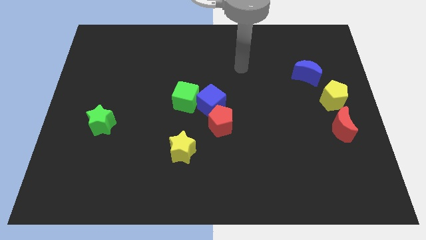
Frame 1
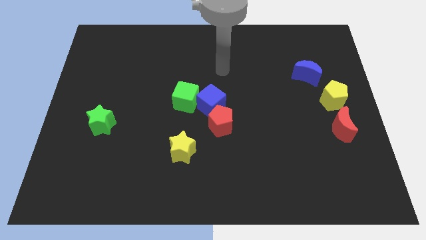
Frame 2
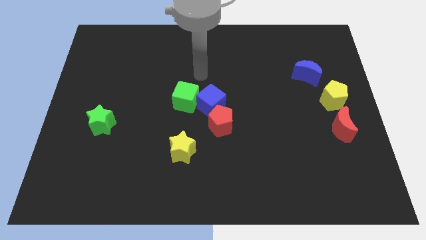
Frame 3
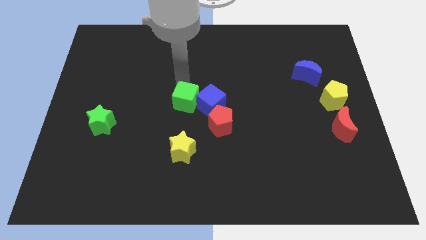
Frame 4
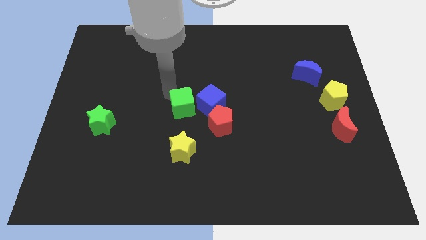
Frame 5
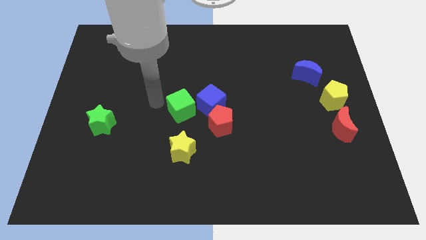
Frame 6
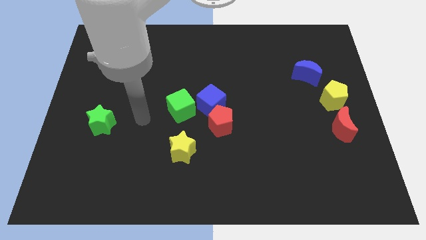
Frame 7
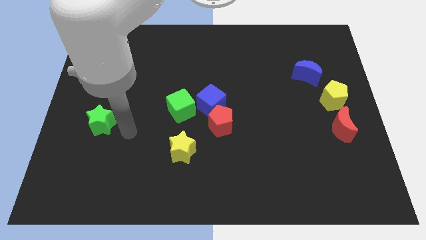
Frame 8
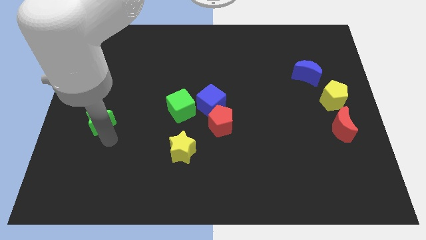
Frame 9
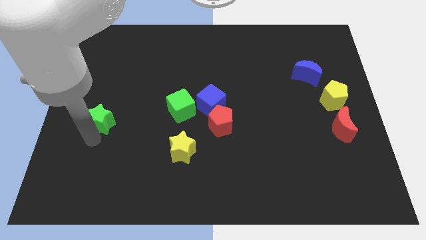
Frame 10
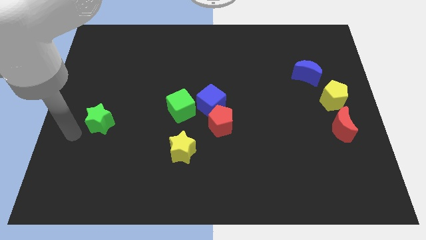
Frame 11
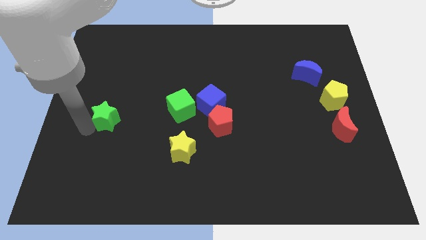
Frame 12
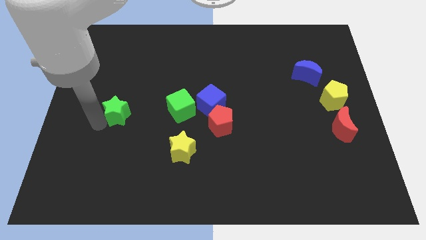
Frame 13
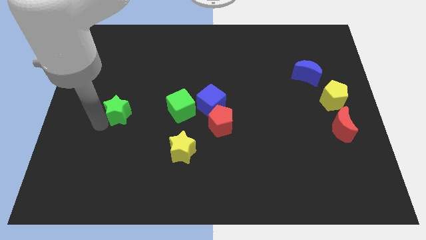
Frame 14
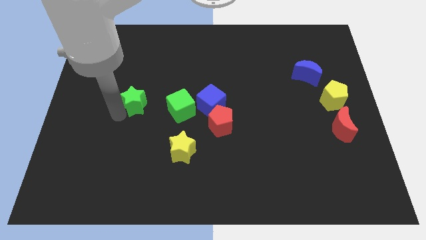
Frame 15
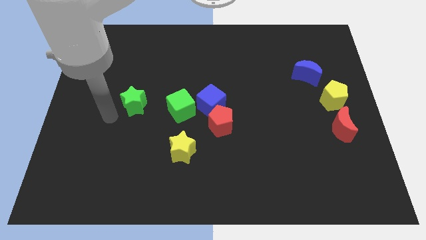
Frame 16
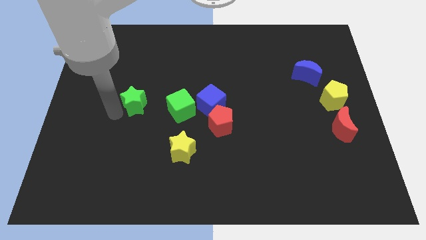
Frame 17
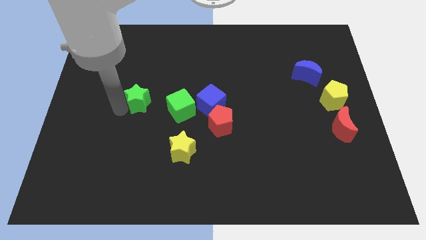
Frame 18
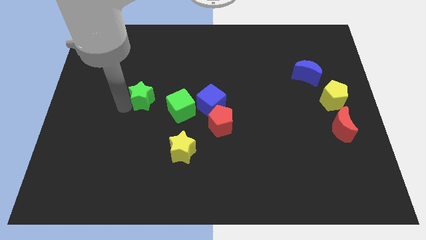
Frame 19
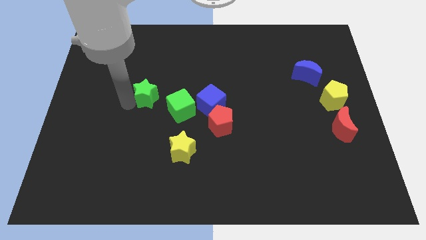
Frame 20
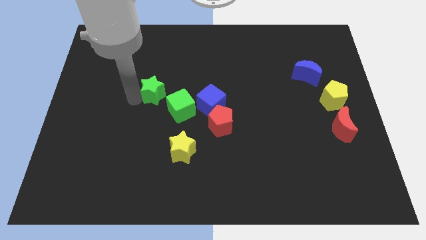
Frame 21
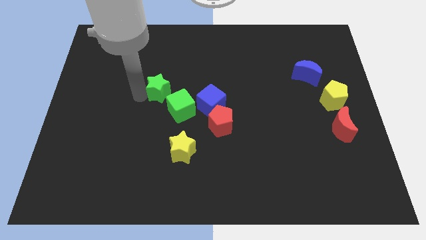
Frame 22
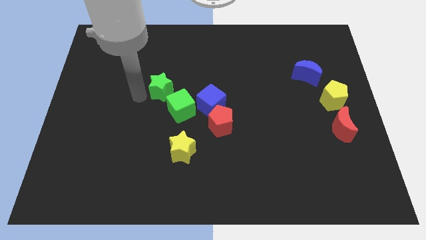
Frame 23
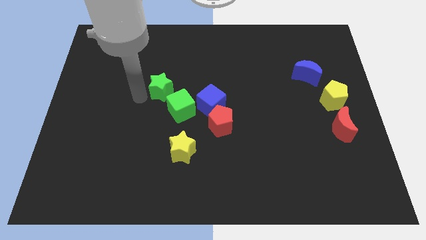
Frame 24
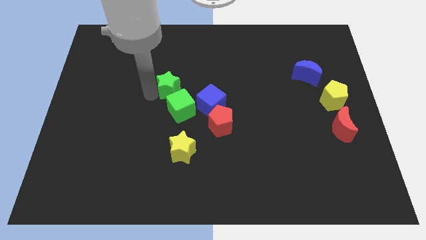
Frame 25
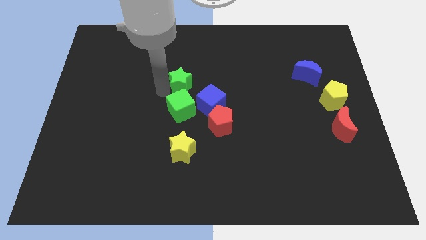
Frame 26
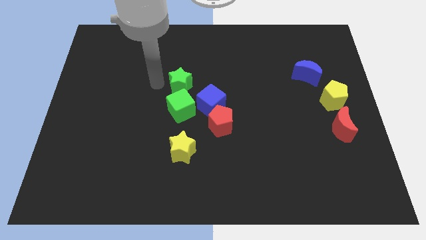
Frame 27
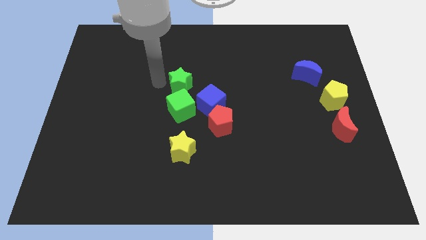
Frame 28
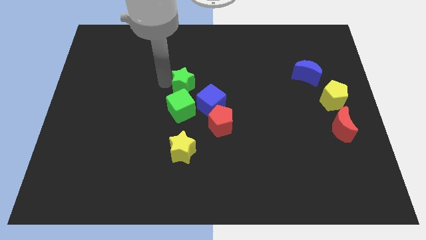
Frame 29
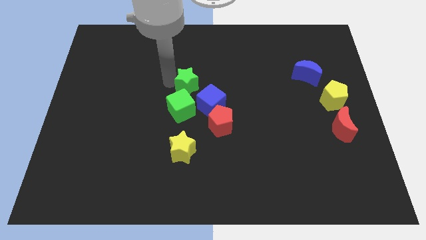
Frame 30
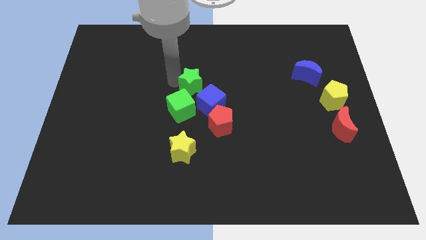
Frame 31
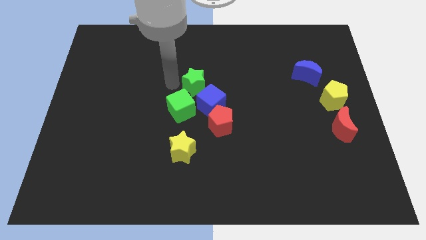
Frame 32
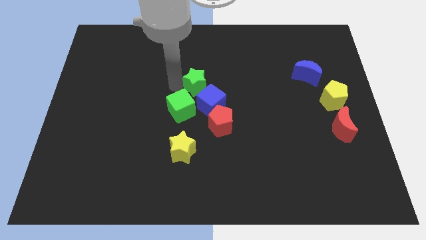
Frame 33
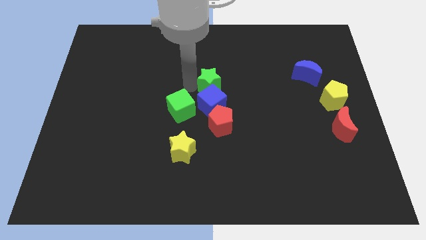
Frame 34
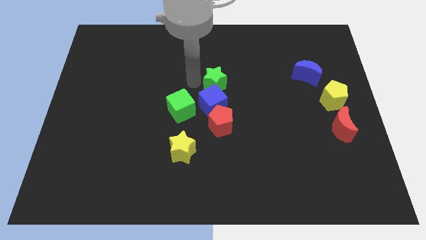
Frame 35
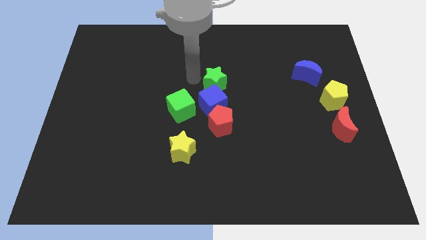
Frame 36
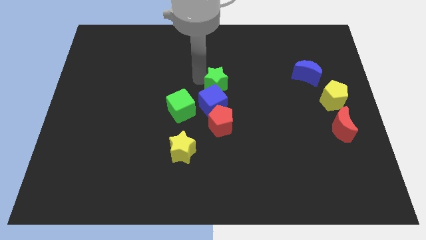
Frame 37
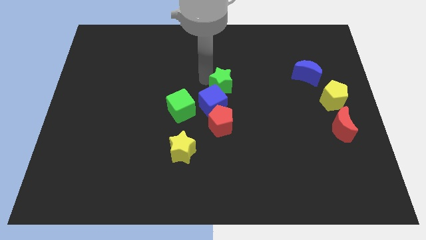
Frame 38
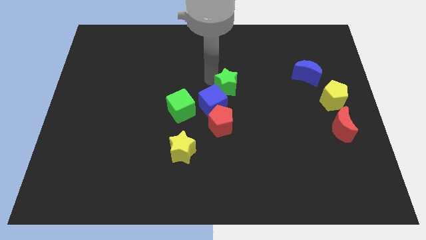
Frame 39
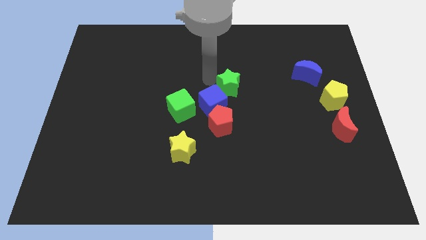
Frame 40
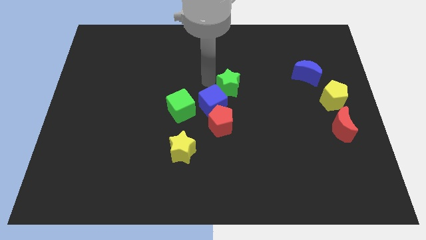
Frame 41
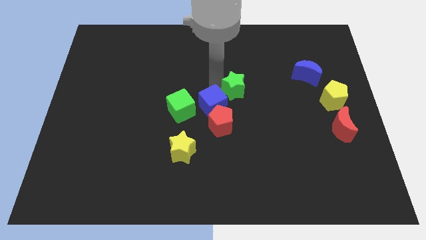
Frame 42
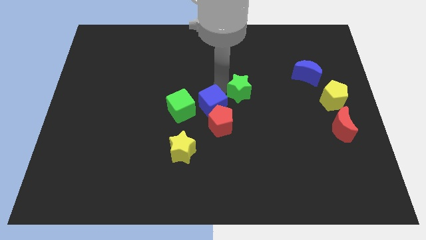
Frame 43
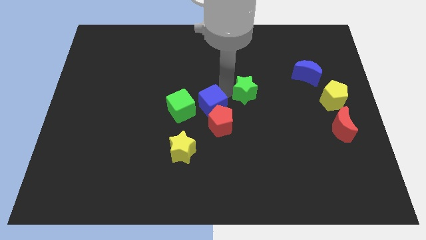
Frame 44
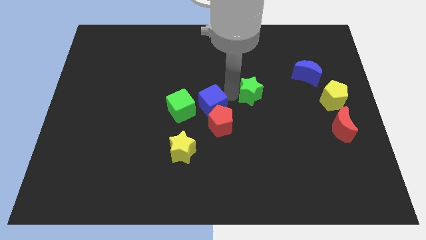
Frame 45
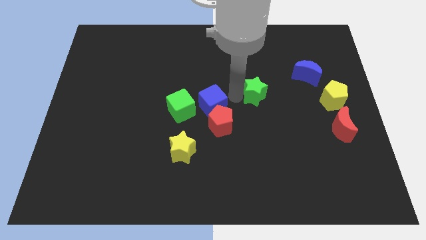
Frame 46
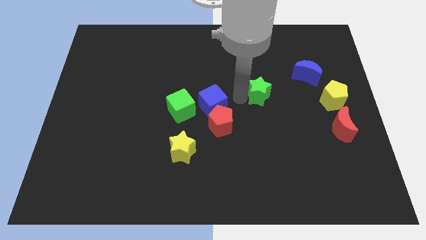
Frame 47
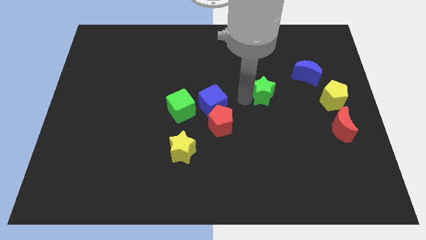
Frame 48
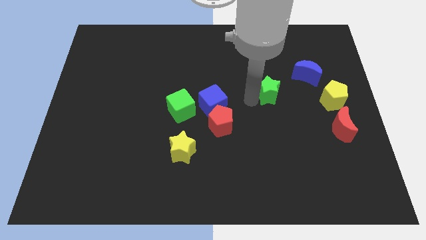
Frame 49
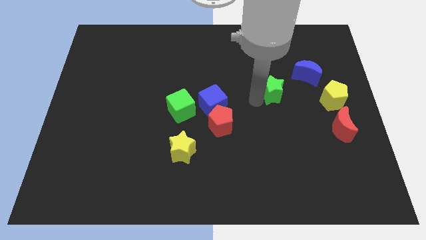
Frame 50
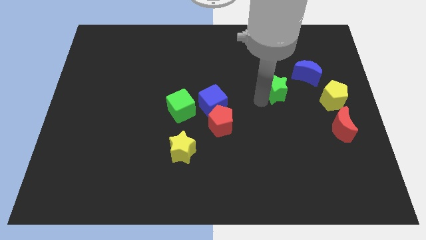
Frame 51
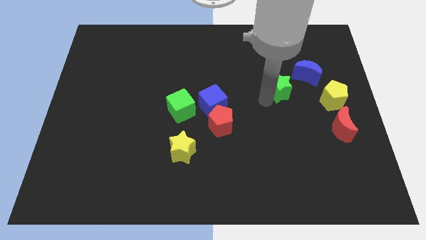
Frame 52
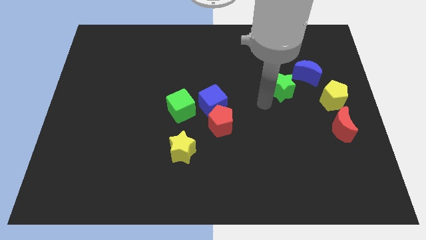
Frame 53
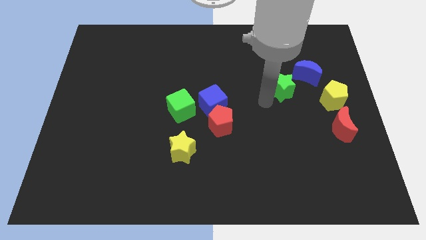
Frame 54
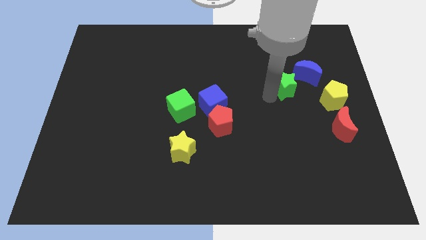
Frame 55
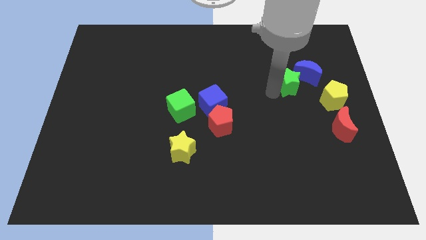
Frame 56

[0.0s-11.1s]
slide the green star to the blue moon
